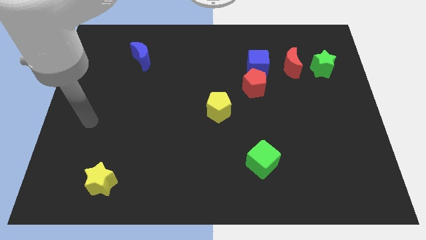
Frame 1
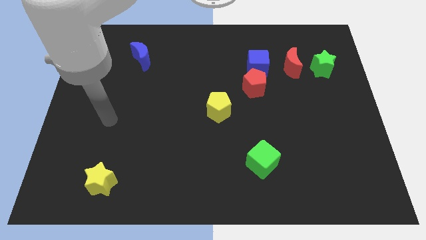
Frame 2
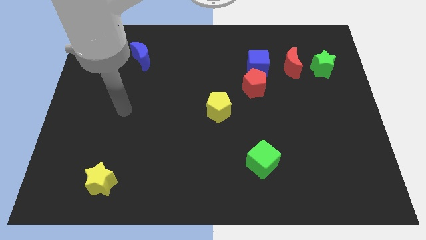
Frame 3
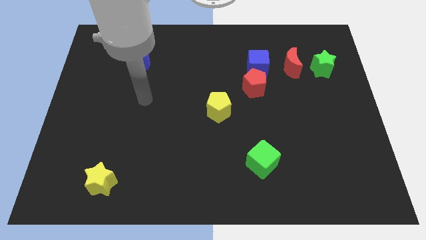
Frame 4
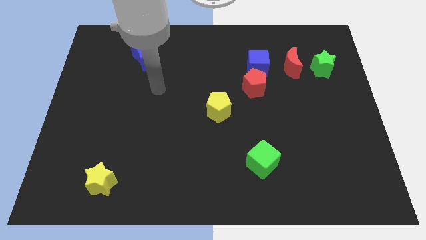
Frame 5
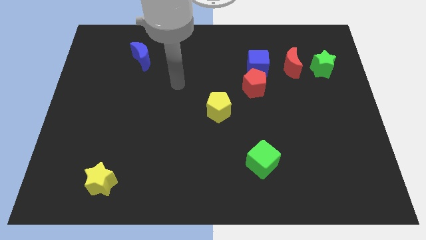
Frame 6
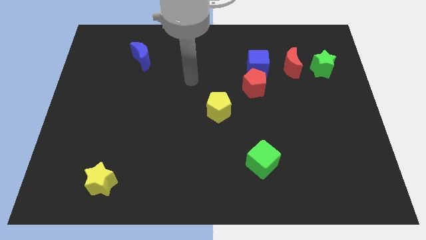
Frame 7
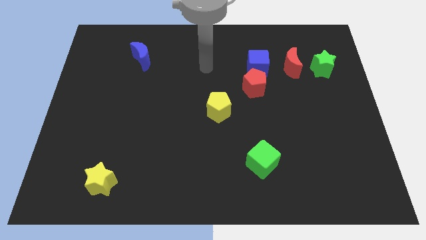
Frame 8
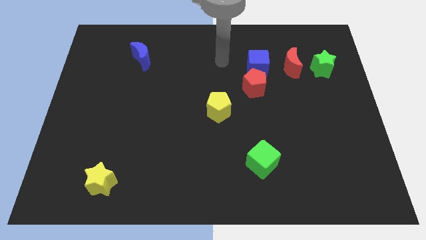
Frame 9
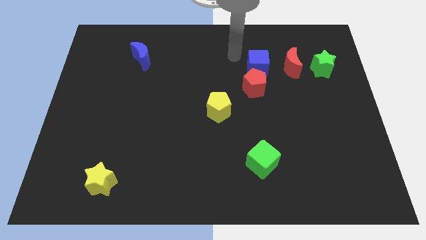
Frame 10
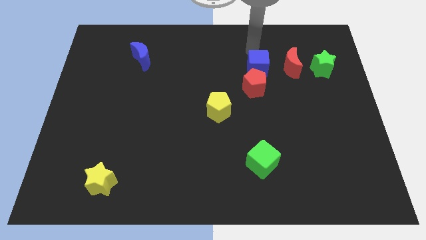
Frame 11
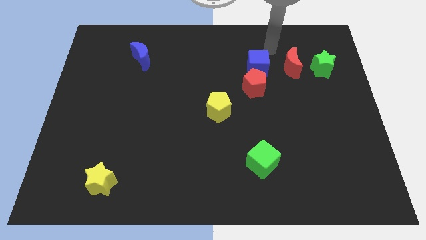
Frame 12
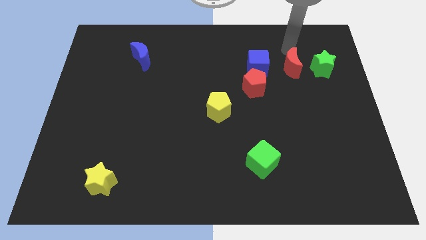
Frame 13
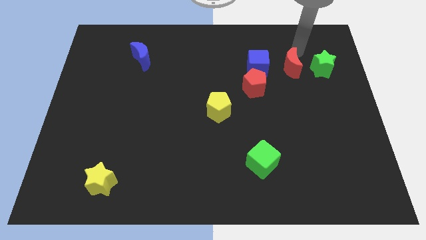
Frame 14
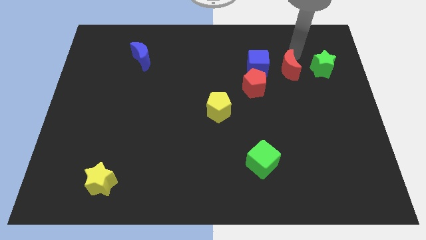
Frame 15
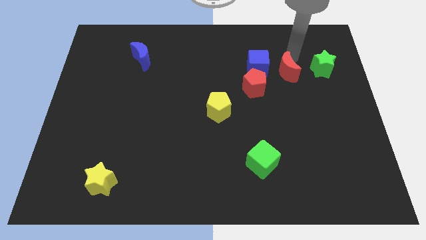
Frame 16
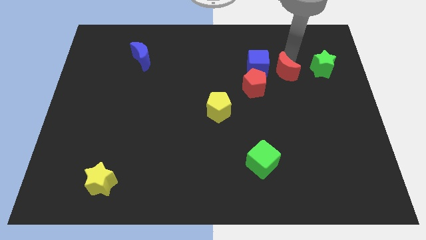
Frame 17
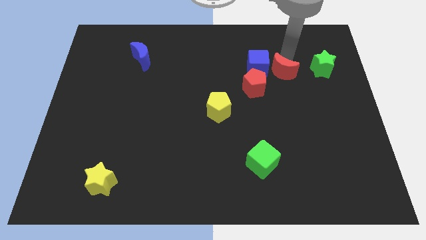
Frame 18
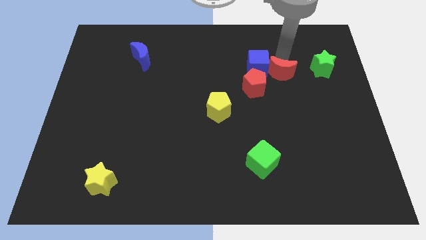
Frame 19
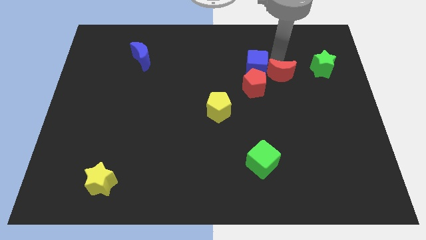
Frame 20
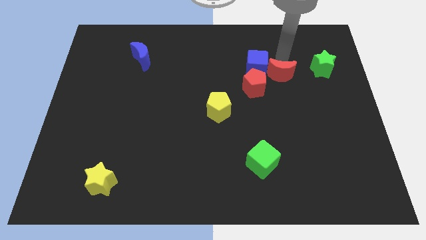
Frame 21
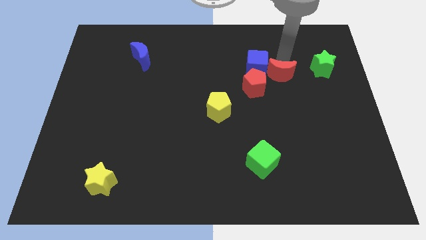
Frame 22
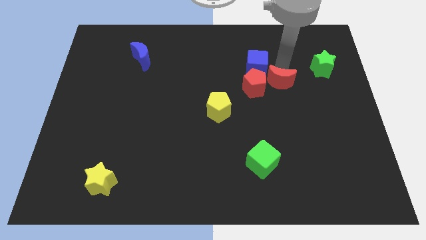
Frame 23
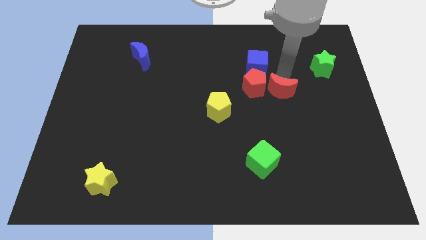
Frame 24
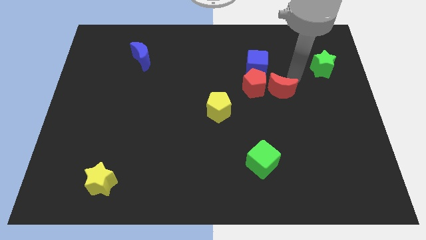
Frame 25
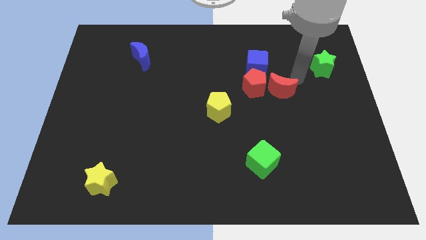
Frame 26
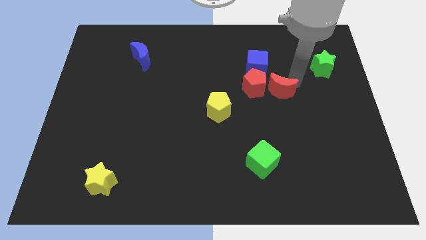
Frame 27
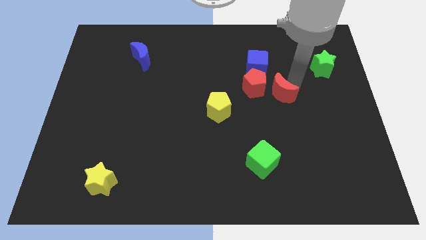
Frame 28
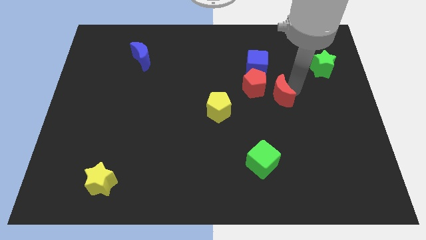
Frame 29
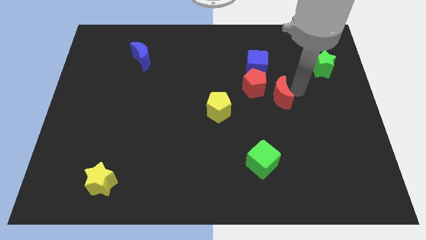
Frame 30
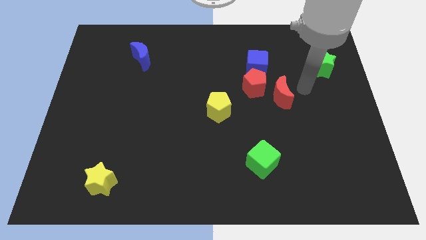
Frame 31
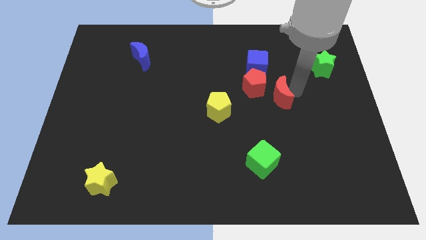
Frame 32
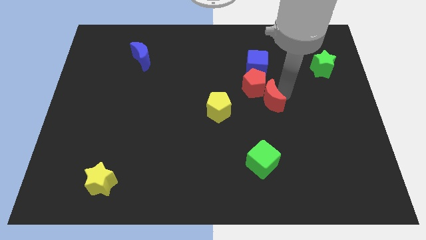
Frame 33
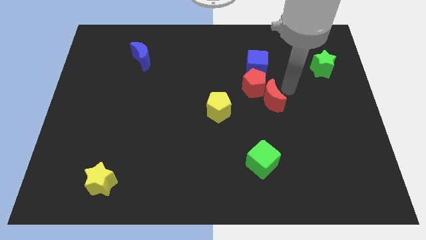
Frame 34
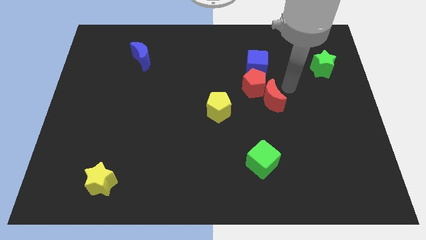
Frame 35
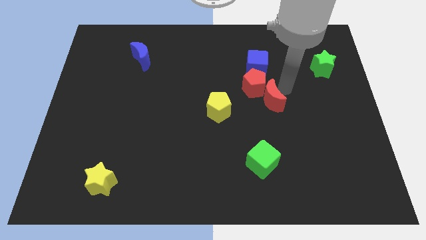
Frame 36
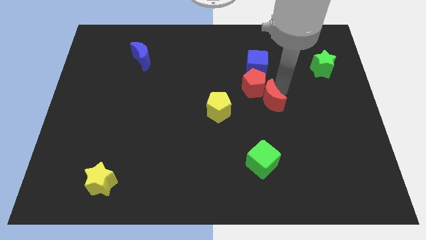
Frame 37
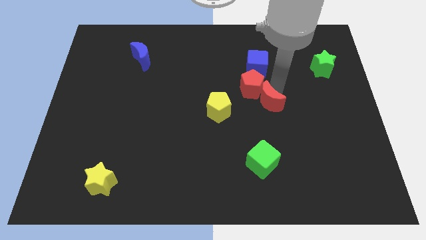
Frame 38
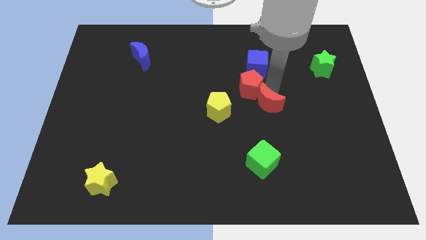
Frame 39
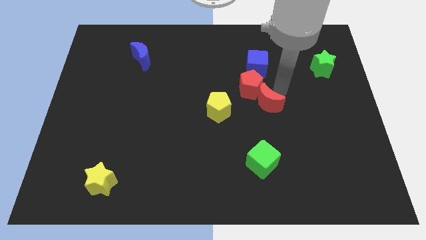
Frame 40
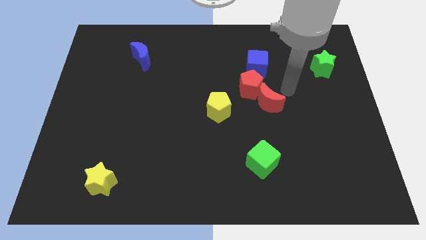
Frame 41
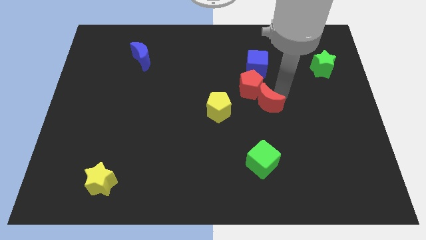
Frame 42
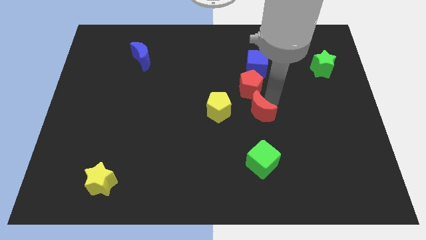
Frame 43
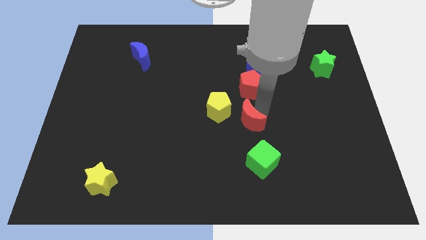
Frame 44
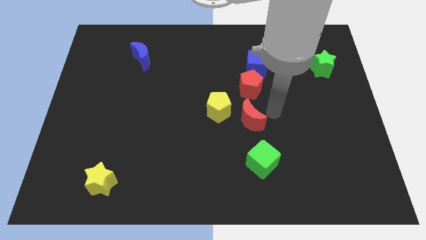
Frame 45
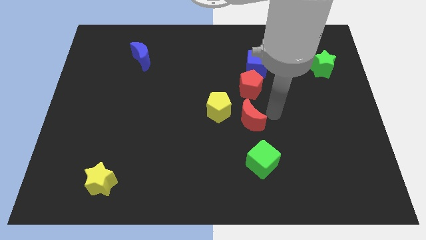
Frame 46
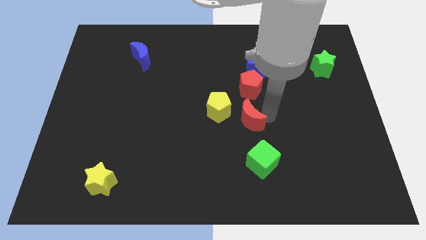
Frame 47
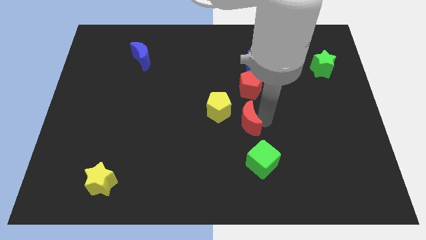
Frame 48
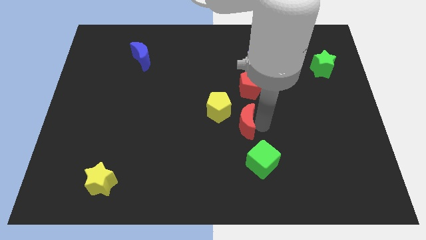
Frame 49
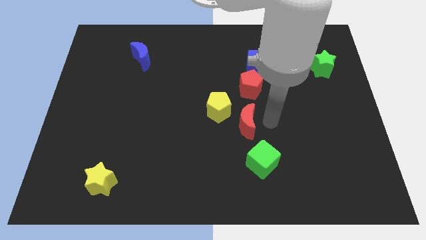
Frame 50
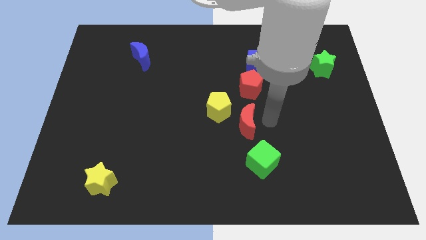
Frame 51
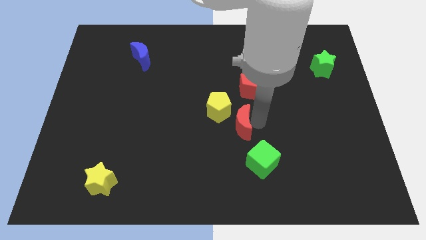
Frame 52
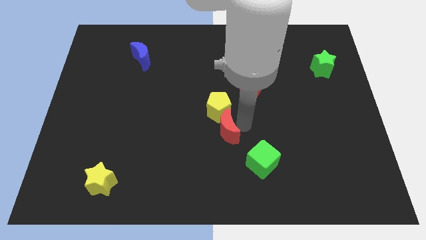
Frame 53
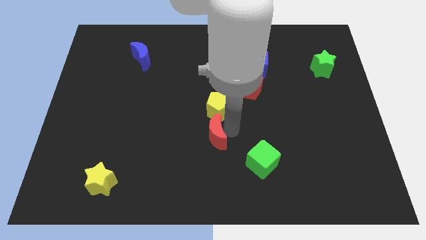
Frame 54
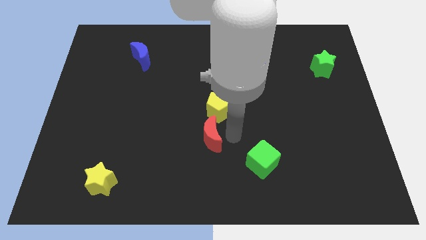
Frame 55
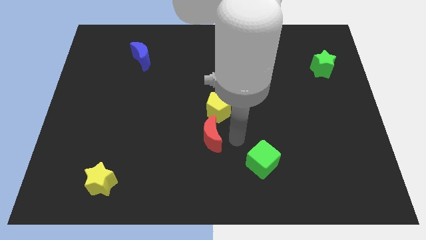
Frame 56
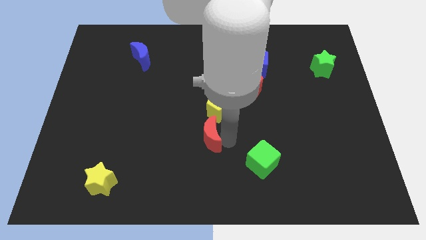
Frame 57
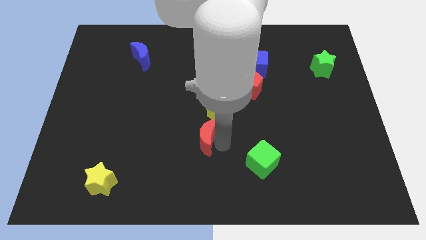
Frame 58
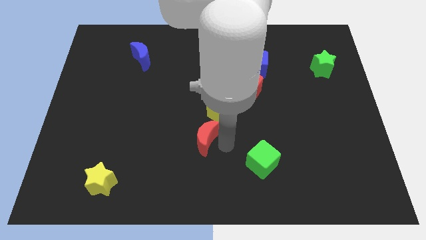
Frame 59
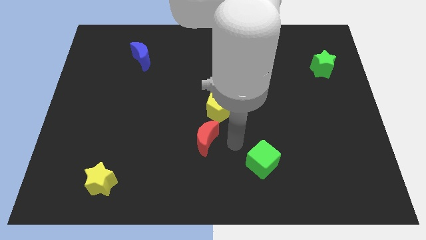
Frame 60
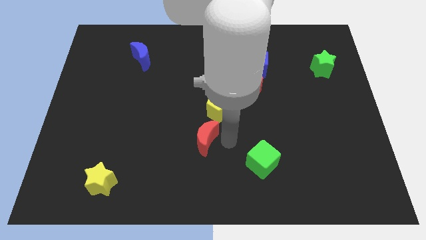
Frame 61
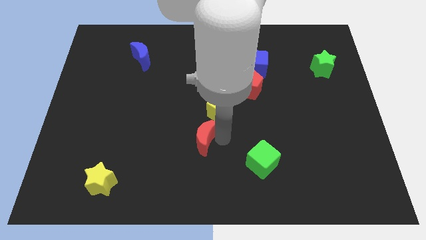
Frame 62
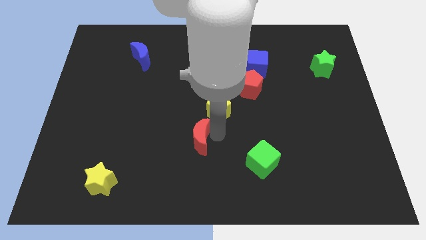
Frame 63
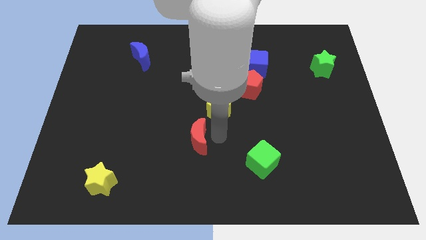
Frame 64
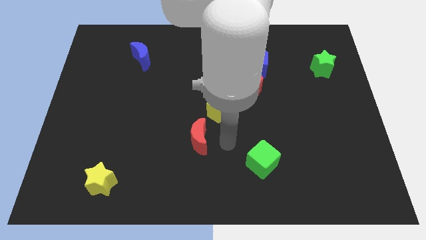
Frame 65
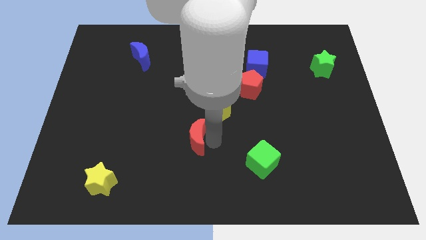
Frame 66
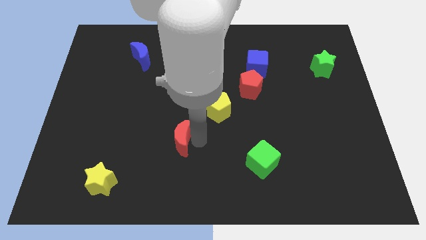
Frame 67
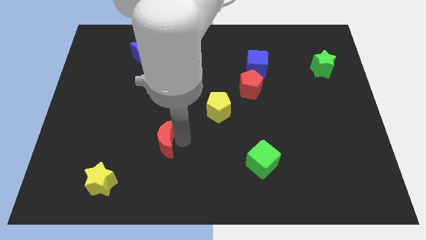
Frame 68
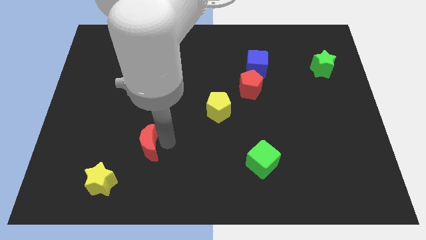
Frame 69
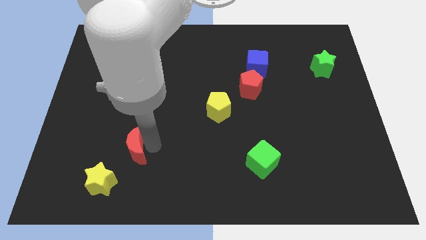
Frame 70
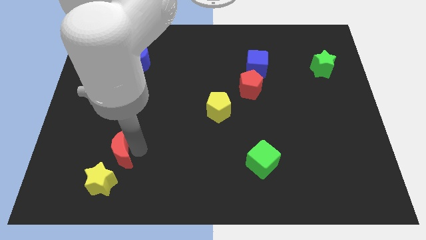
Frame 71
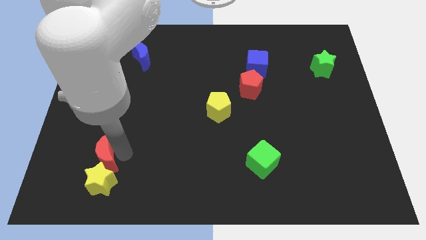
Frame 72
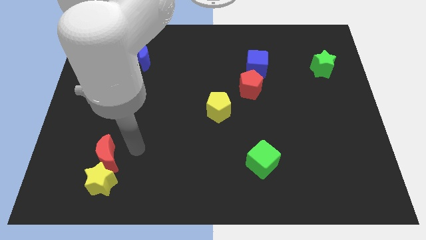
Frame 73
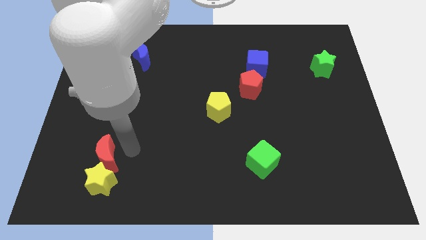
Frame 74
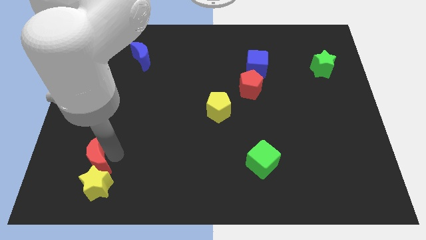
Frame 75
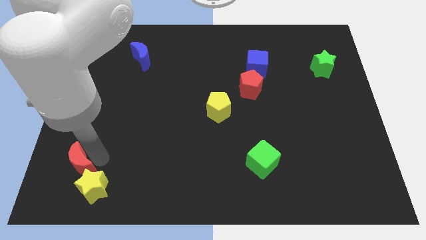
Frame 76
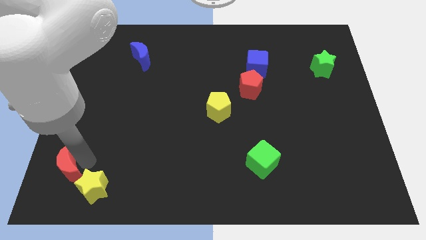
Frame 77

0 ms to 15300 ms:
push the red moon to the bottom left of the board
